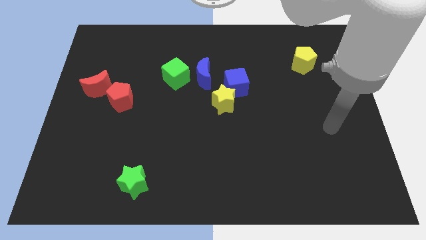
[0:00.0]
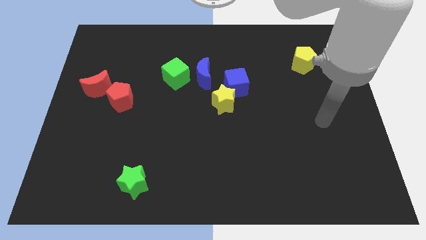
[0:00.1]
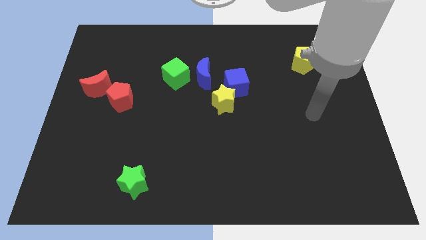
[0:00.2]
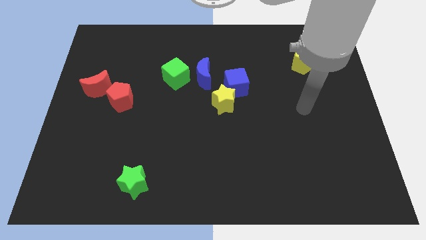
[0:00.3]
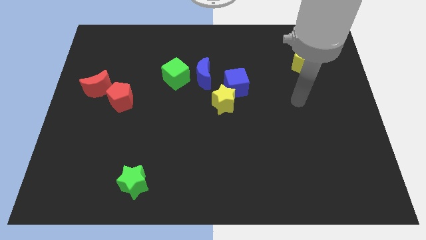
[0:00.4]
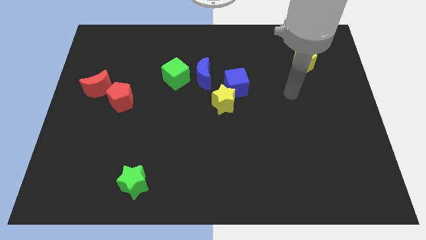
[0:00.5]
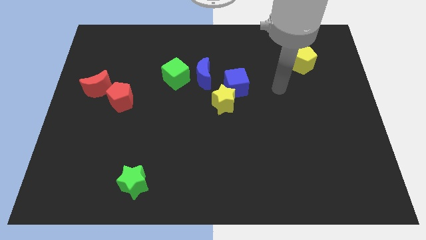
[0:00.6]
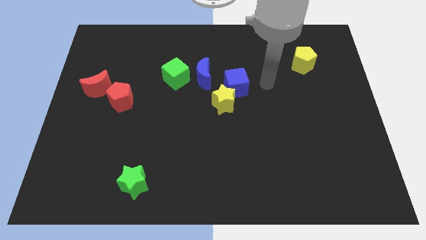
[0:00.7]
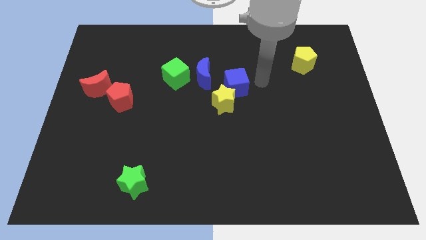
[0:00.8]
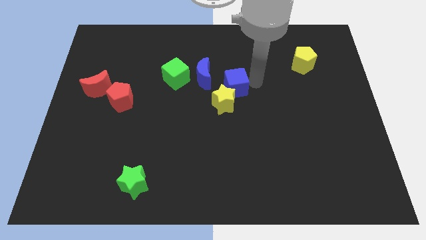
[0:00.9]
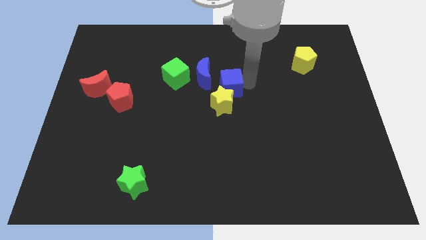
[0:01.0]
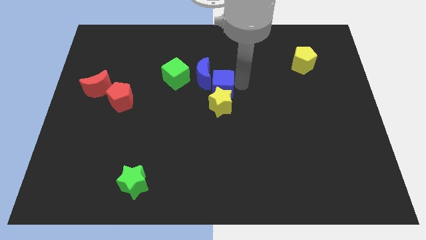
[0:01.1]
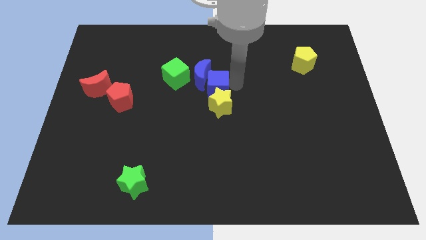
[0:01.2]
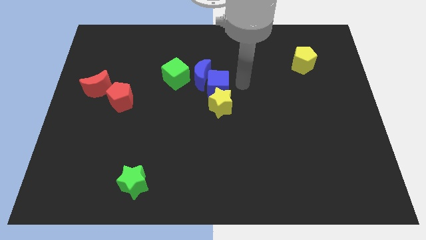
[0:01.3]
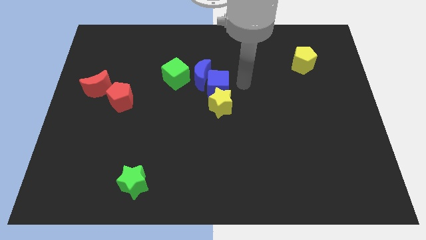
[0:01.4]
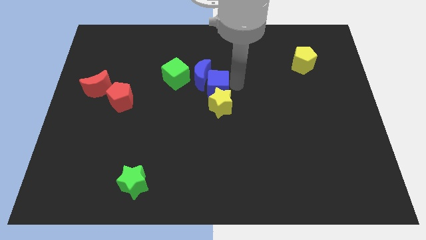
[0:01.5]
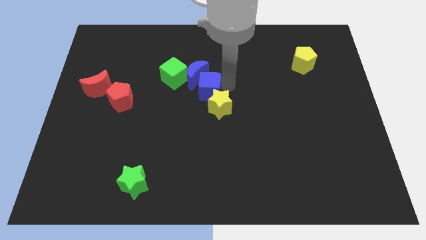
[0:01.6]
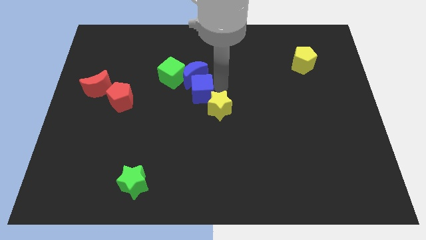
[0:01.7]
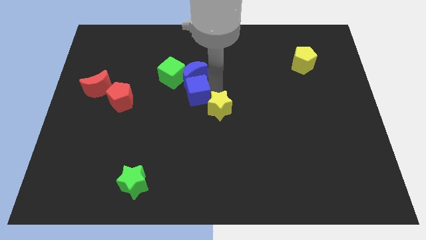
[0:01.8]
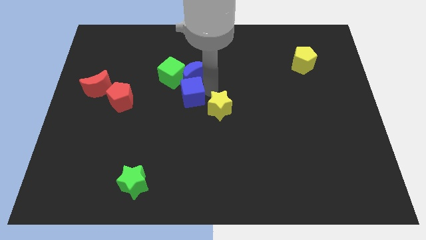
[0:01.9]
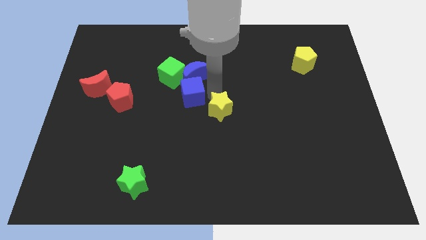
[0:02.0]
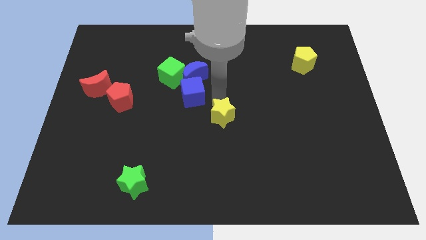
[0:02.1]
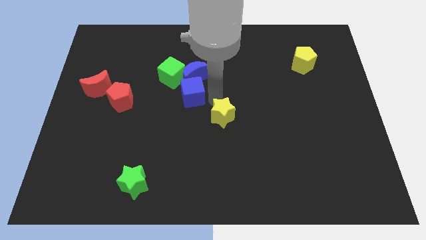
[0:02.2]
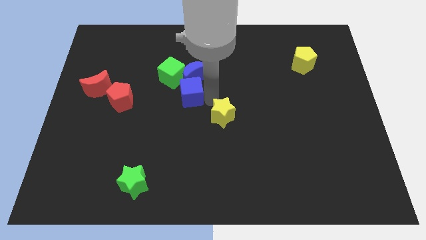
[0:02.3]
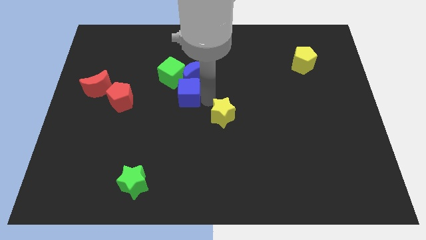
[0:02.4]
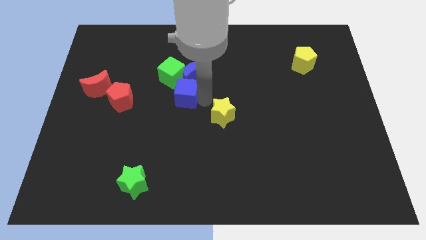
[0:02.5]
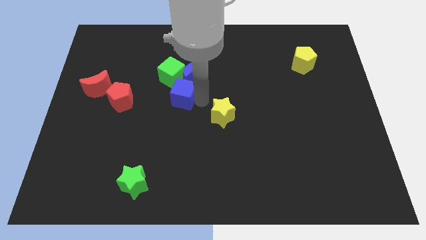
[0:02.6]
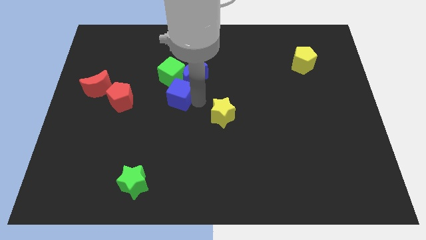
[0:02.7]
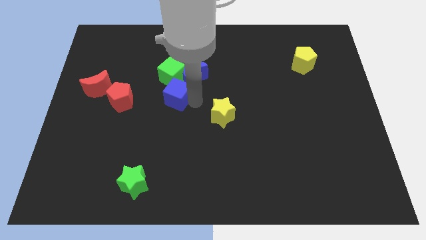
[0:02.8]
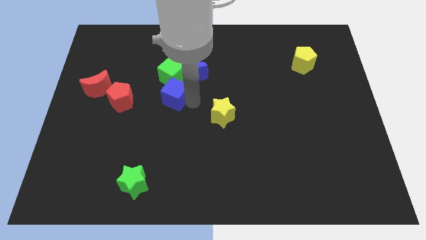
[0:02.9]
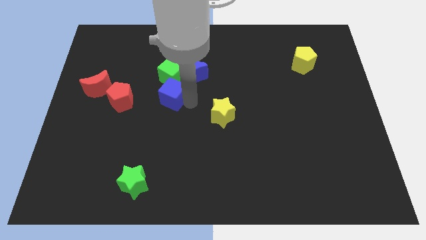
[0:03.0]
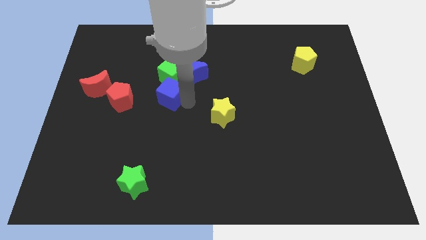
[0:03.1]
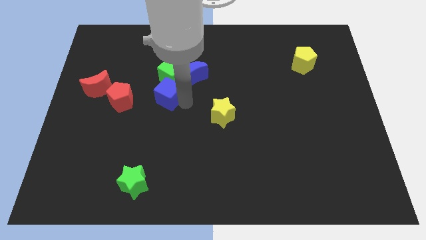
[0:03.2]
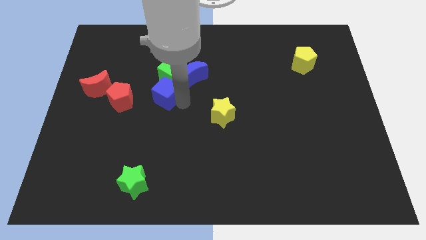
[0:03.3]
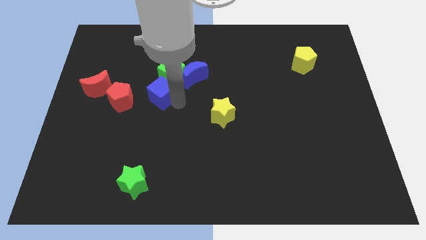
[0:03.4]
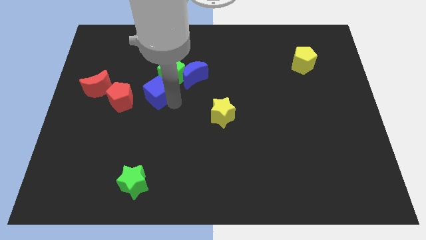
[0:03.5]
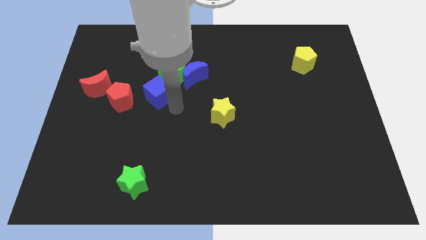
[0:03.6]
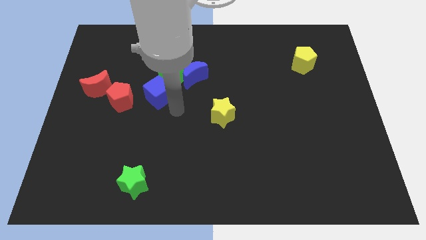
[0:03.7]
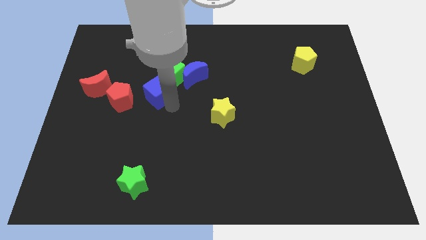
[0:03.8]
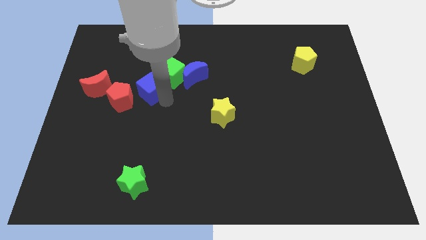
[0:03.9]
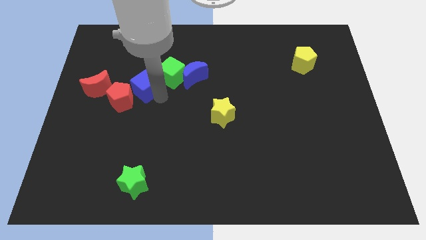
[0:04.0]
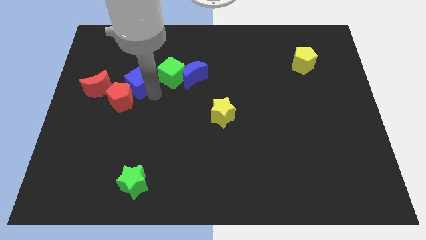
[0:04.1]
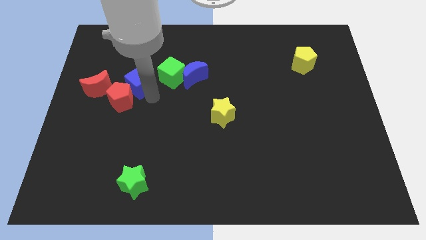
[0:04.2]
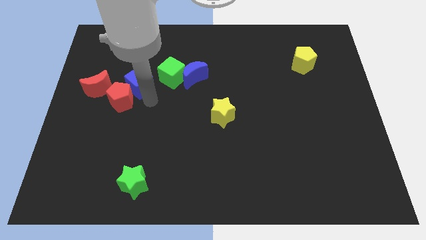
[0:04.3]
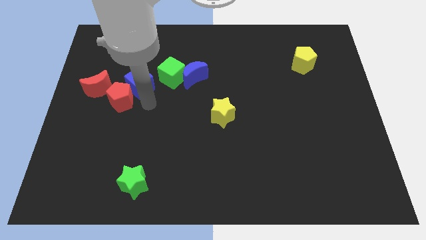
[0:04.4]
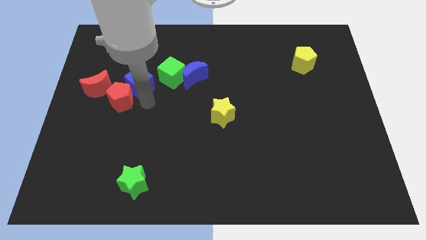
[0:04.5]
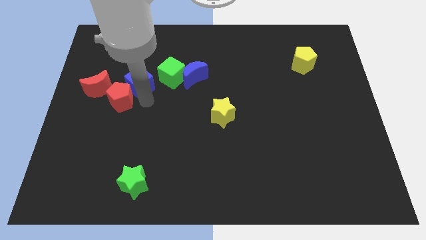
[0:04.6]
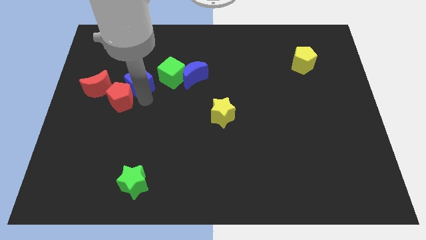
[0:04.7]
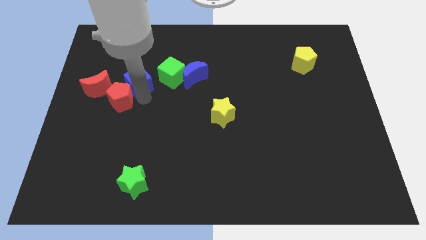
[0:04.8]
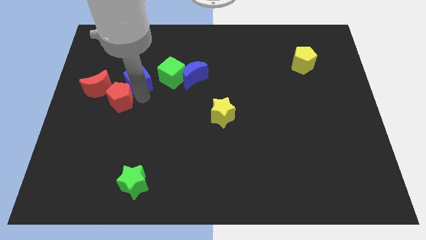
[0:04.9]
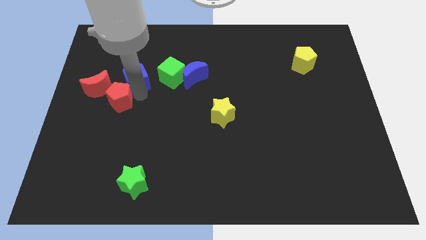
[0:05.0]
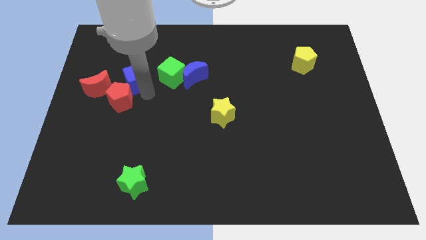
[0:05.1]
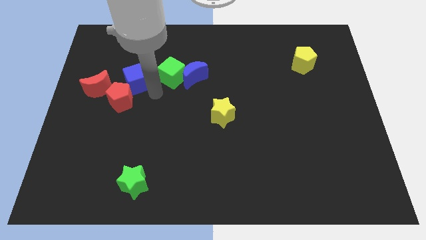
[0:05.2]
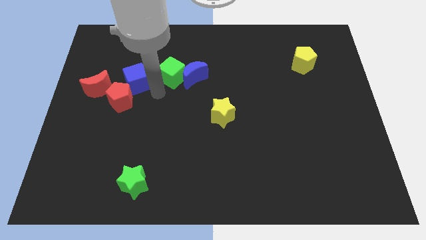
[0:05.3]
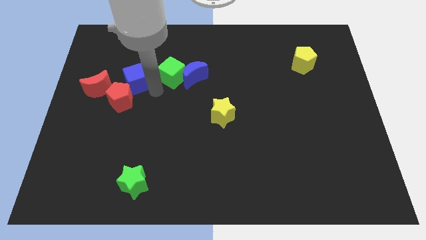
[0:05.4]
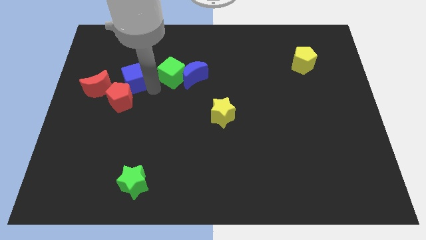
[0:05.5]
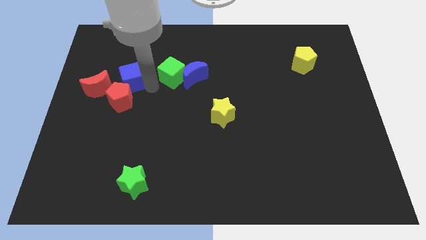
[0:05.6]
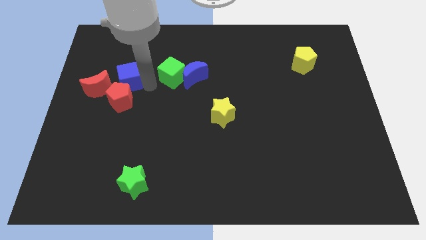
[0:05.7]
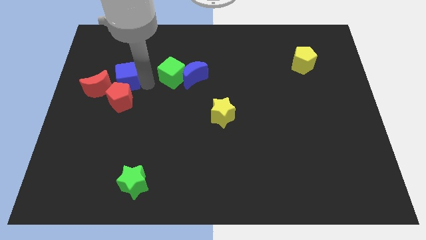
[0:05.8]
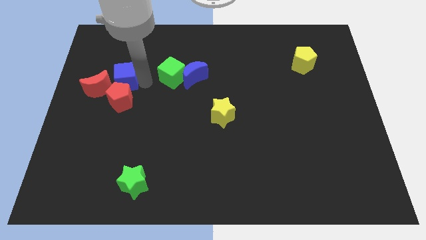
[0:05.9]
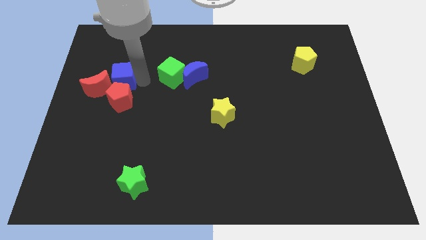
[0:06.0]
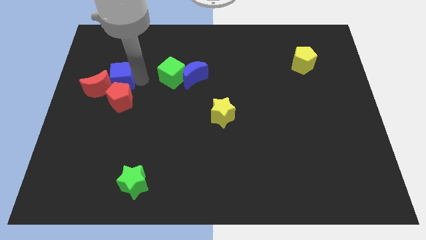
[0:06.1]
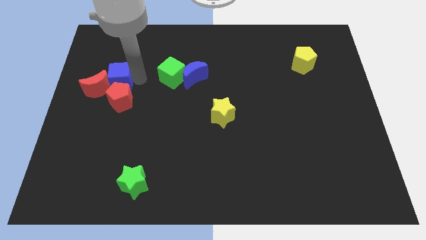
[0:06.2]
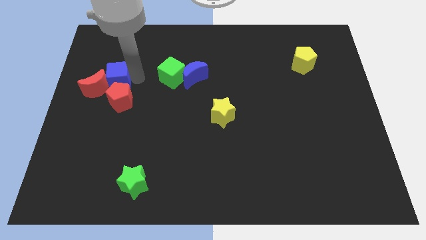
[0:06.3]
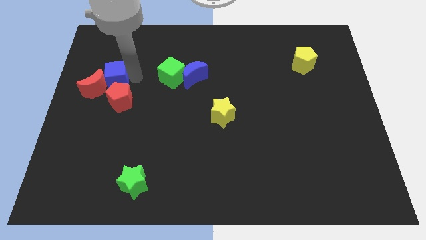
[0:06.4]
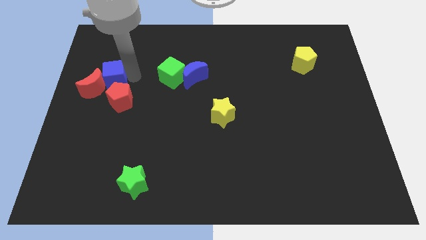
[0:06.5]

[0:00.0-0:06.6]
put the blue cube above the red moon
